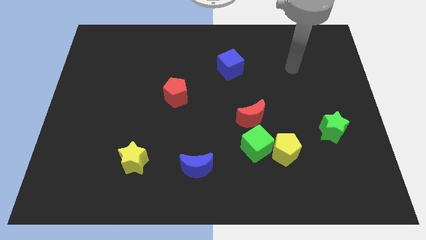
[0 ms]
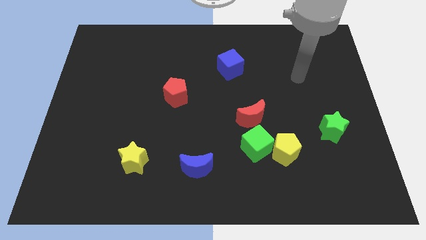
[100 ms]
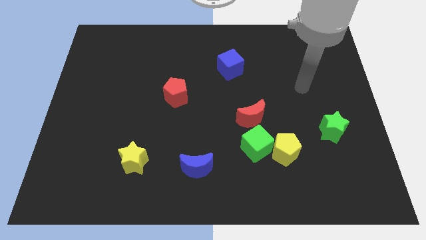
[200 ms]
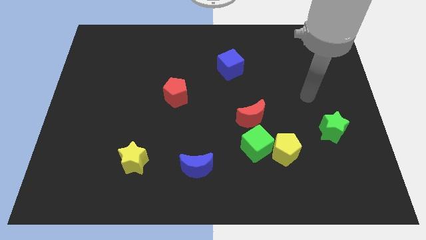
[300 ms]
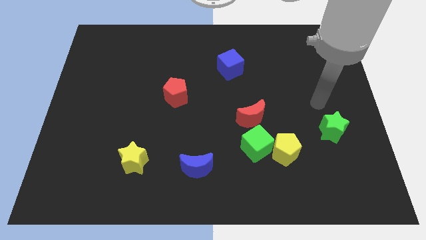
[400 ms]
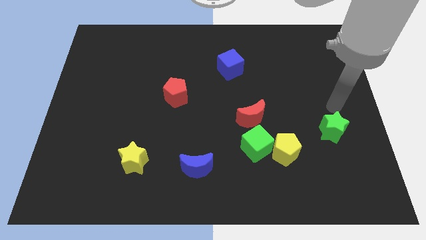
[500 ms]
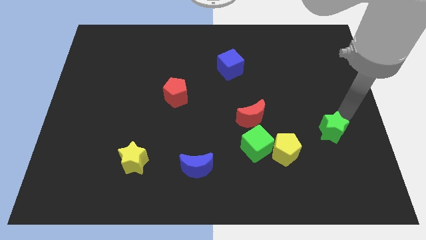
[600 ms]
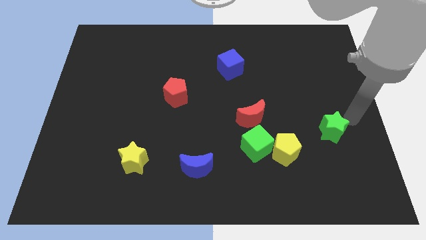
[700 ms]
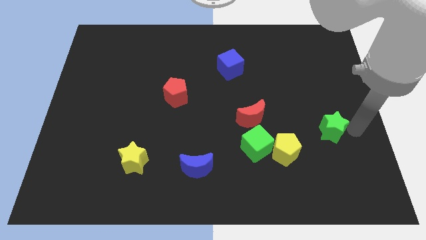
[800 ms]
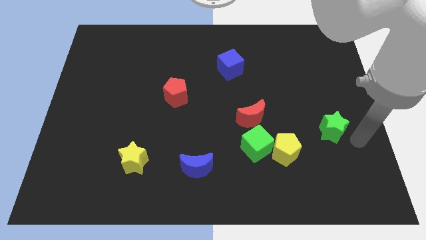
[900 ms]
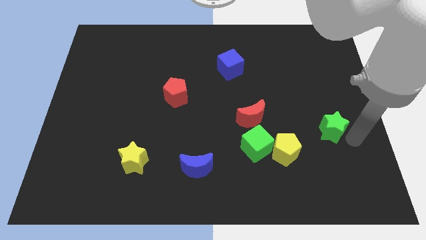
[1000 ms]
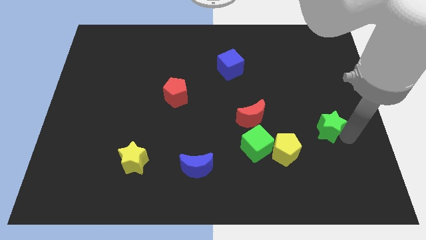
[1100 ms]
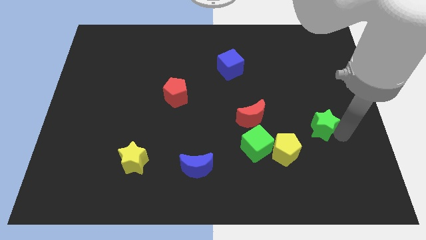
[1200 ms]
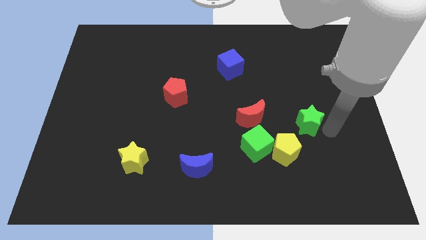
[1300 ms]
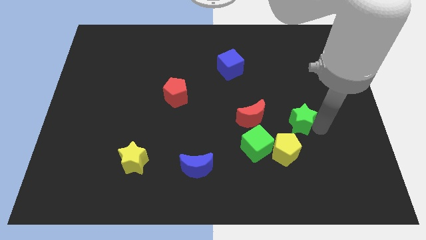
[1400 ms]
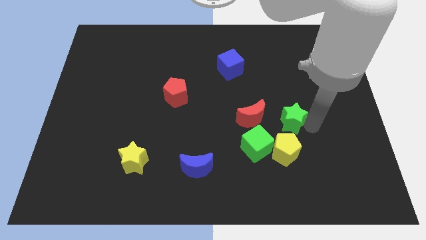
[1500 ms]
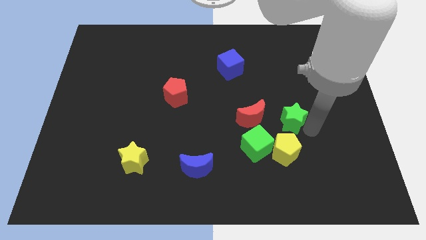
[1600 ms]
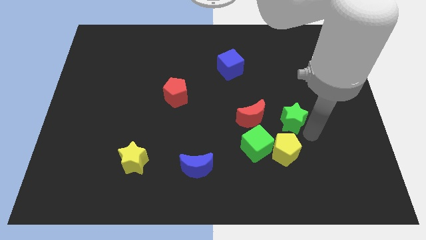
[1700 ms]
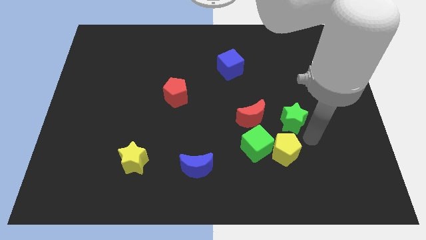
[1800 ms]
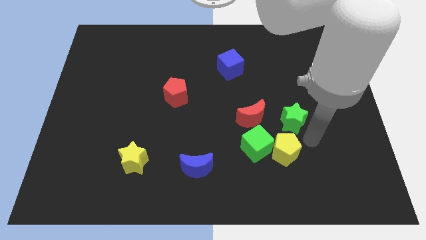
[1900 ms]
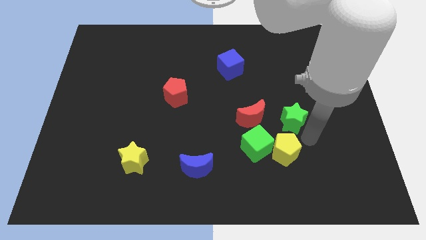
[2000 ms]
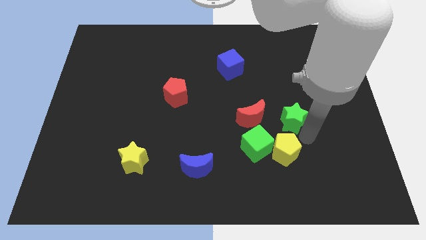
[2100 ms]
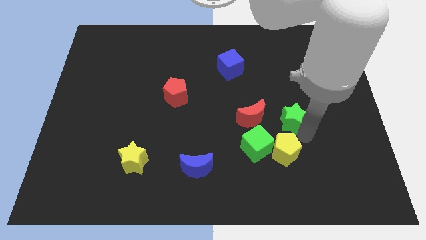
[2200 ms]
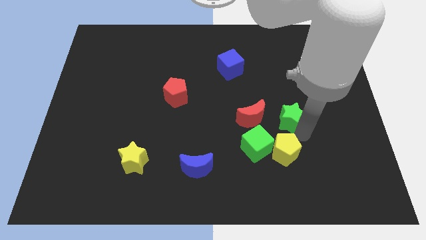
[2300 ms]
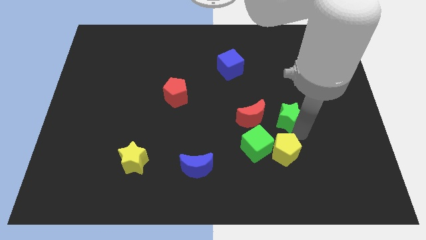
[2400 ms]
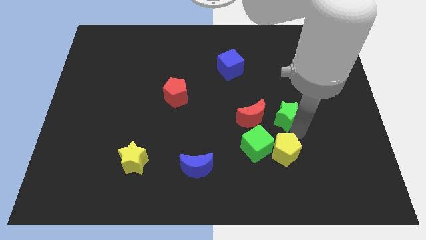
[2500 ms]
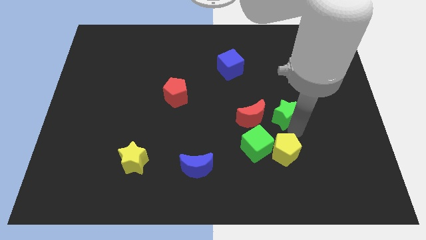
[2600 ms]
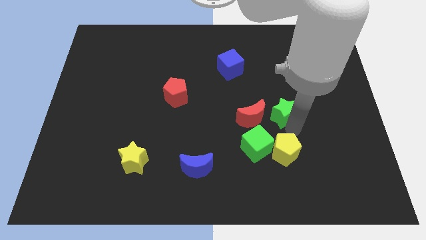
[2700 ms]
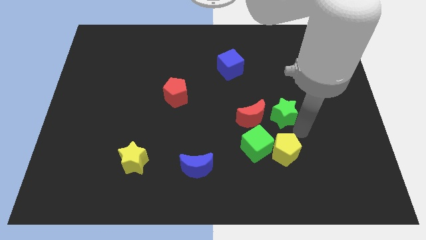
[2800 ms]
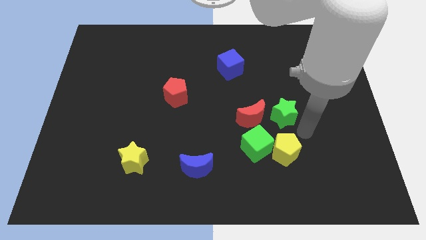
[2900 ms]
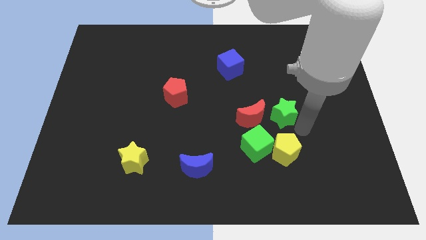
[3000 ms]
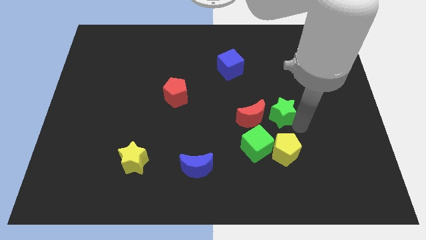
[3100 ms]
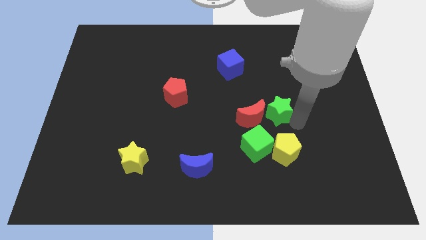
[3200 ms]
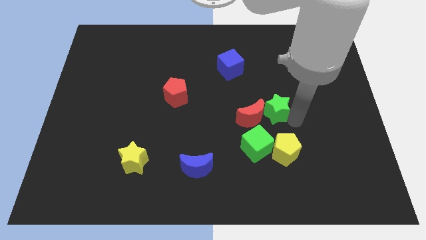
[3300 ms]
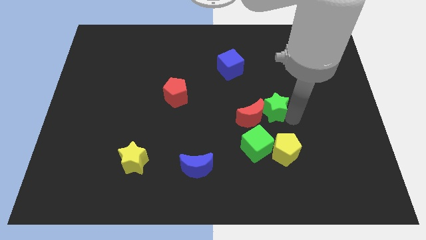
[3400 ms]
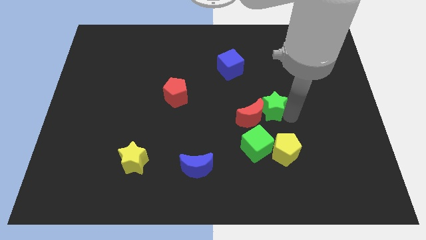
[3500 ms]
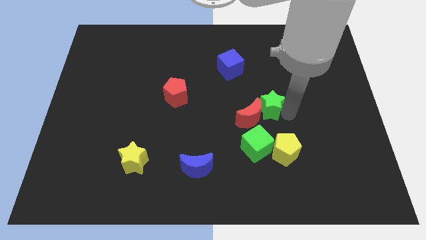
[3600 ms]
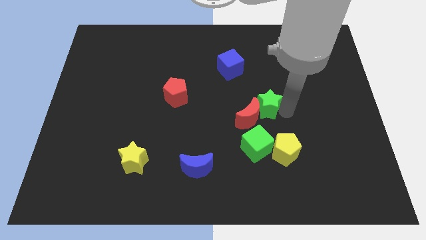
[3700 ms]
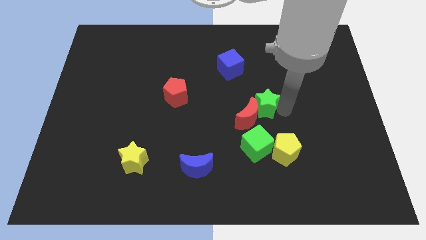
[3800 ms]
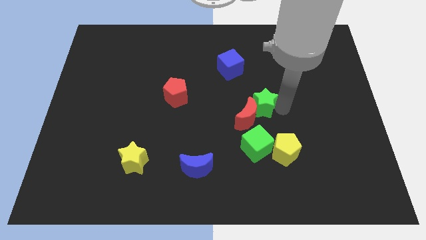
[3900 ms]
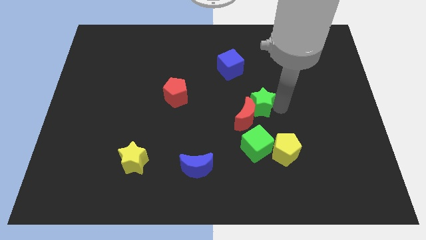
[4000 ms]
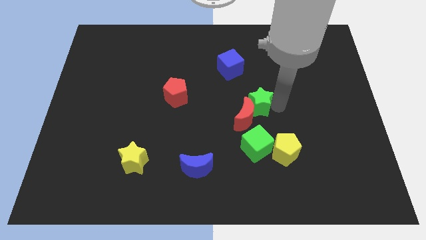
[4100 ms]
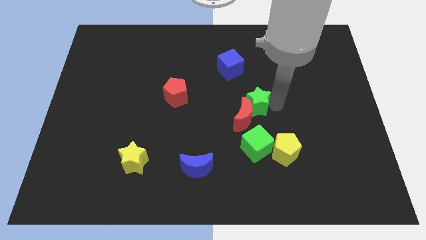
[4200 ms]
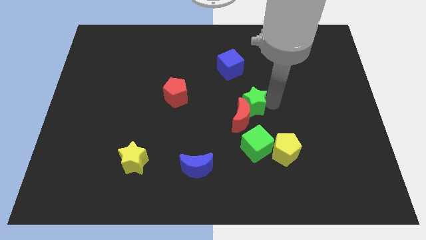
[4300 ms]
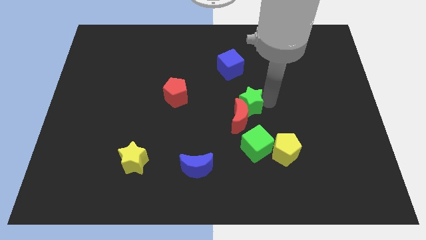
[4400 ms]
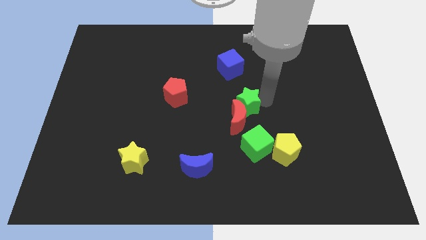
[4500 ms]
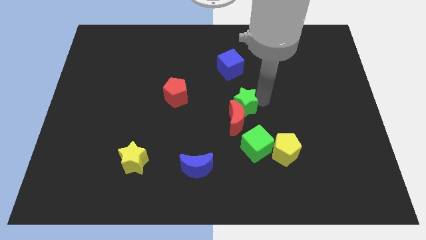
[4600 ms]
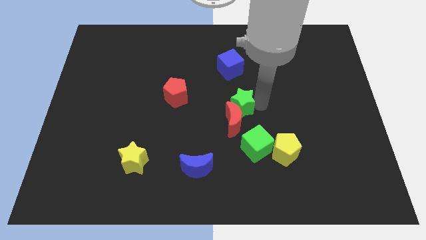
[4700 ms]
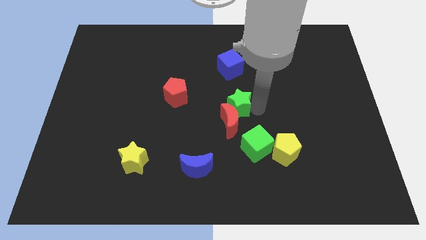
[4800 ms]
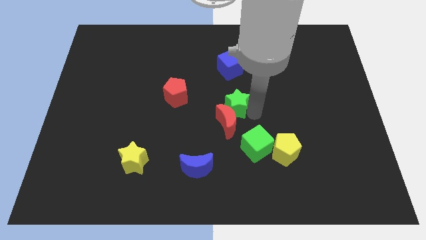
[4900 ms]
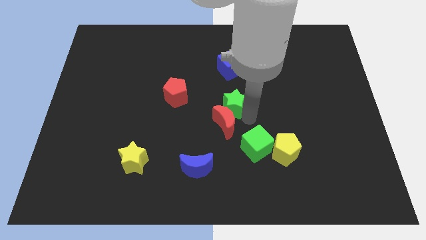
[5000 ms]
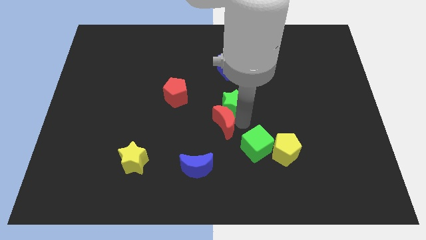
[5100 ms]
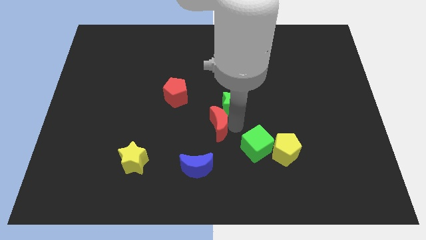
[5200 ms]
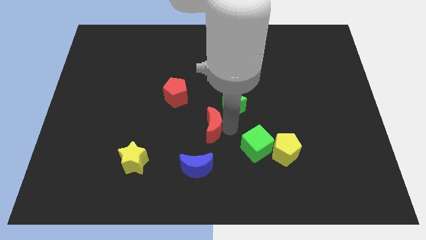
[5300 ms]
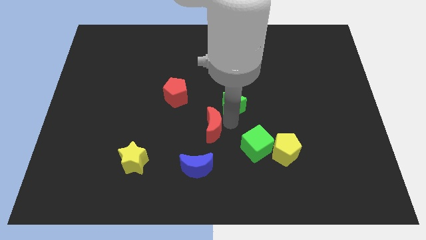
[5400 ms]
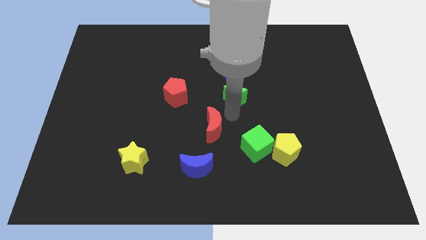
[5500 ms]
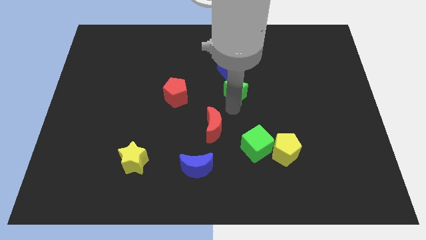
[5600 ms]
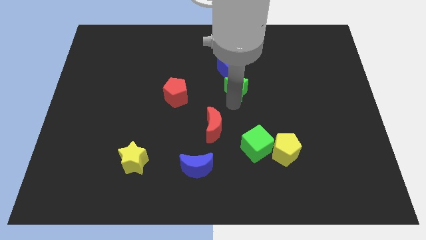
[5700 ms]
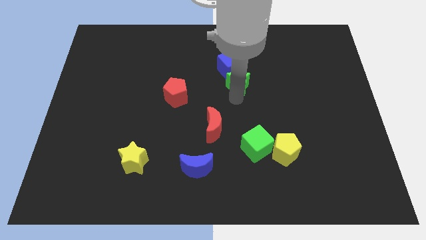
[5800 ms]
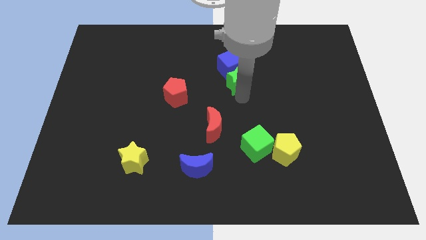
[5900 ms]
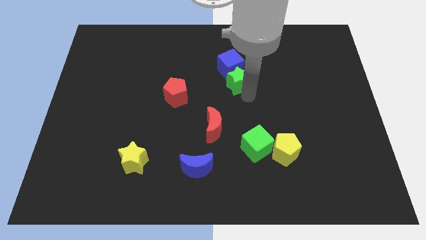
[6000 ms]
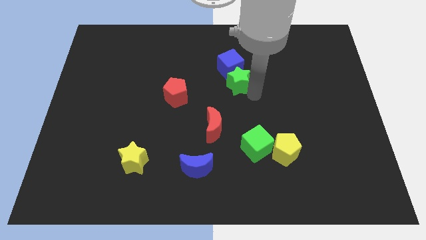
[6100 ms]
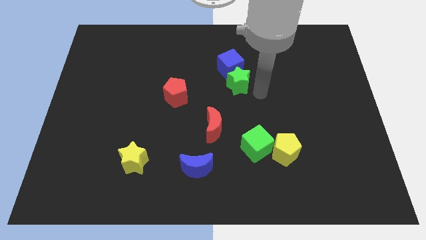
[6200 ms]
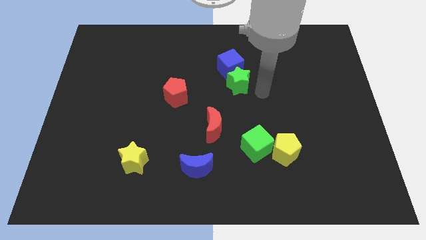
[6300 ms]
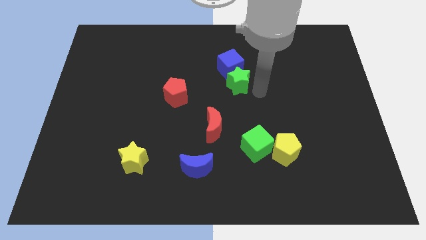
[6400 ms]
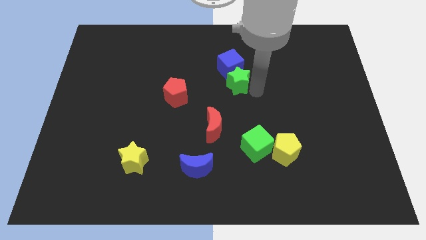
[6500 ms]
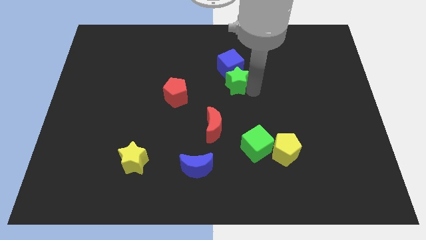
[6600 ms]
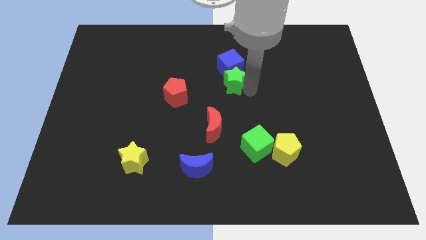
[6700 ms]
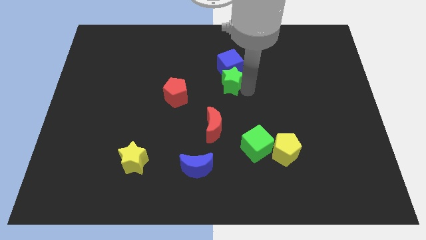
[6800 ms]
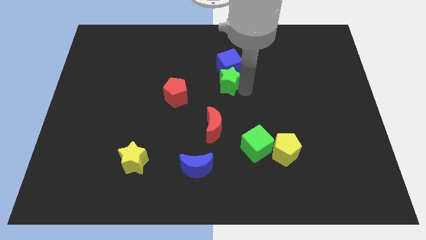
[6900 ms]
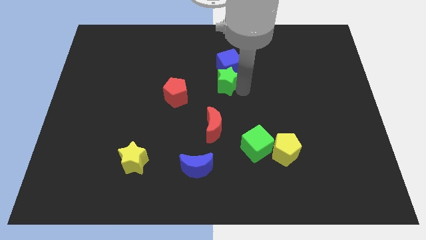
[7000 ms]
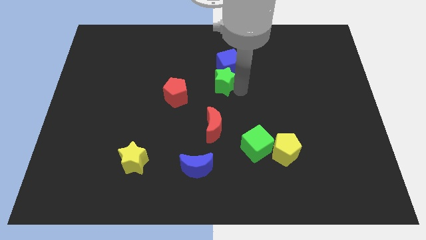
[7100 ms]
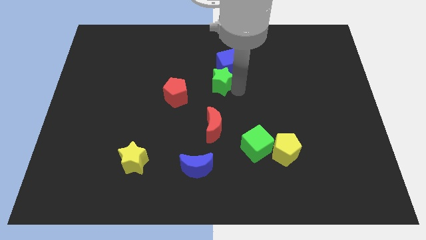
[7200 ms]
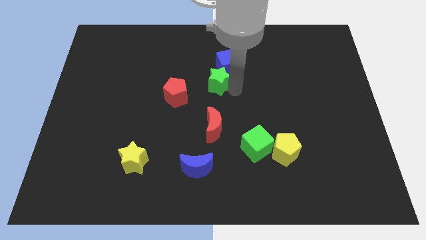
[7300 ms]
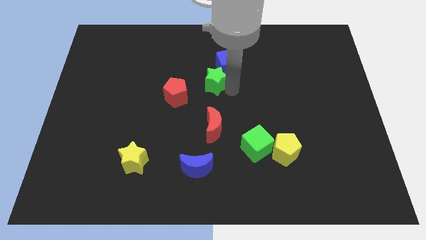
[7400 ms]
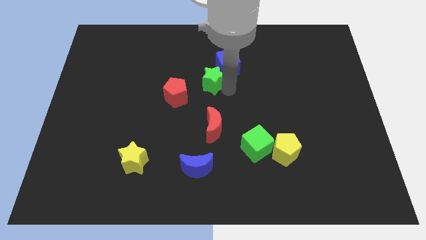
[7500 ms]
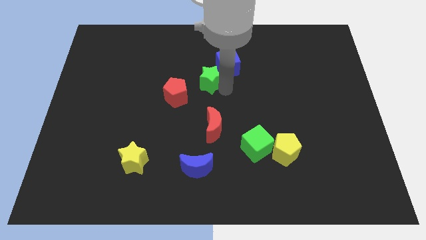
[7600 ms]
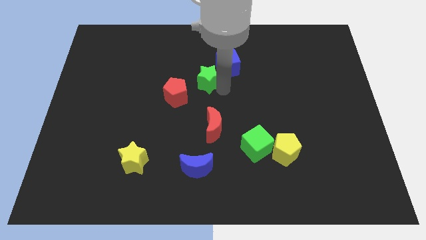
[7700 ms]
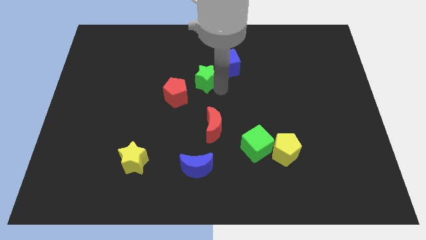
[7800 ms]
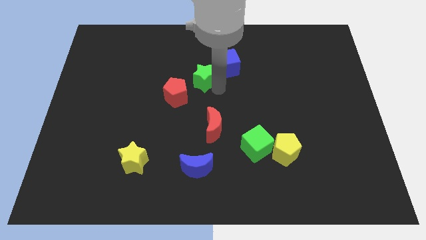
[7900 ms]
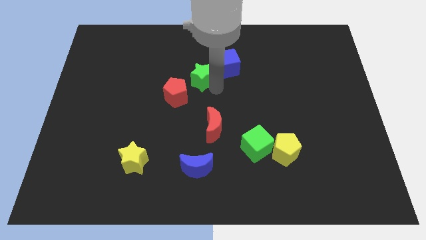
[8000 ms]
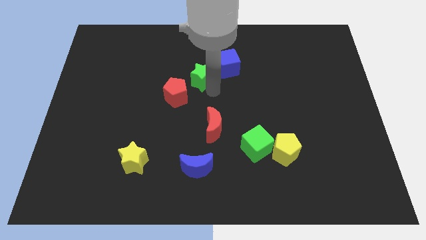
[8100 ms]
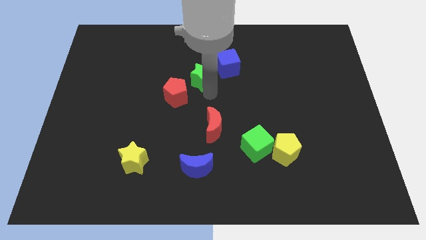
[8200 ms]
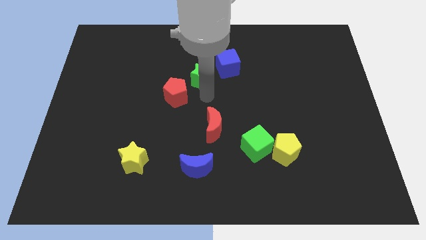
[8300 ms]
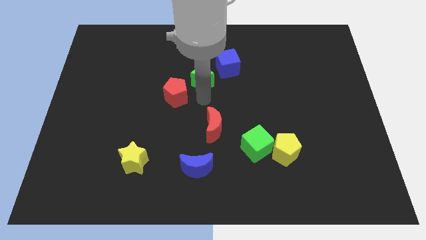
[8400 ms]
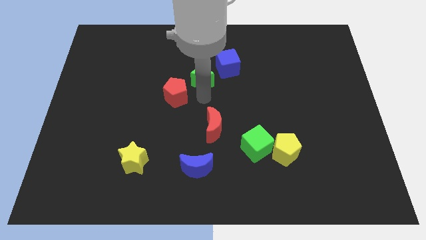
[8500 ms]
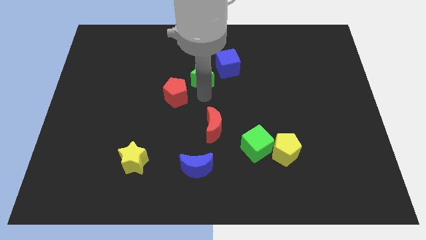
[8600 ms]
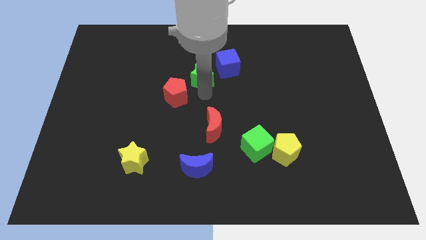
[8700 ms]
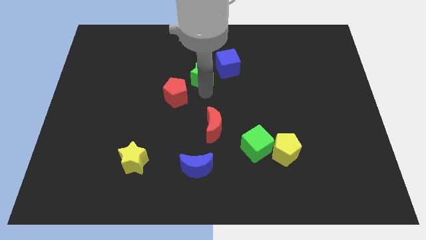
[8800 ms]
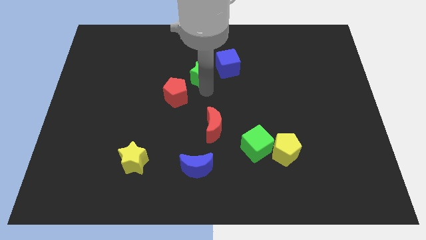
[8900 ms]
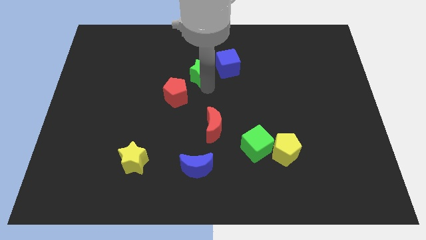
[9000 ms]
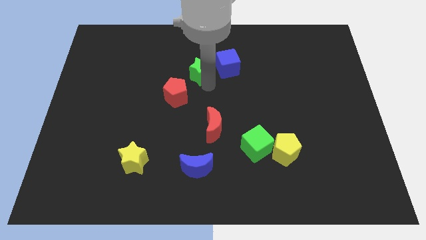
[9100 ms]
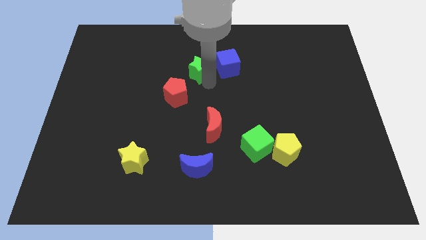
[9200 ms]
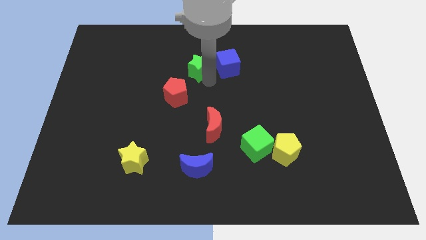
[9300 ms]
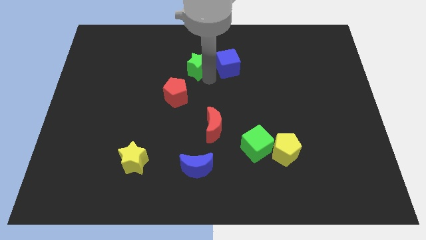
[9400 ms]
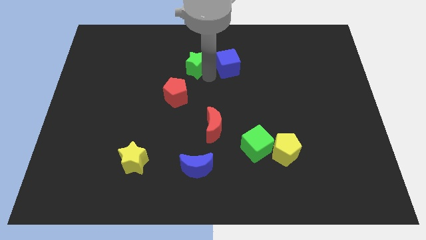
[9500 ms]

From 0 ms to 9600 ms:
put the green star to the top side of the red pentagon
